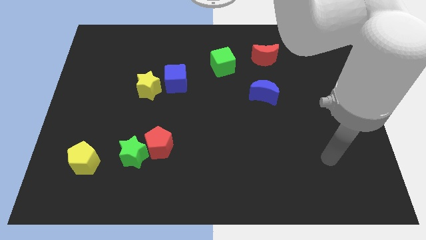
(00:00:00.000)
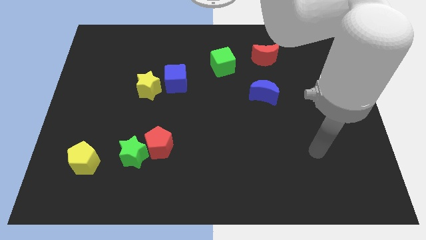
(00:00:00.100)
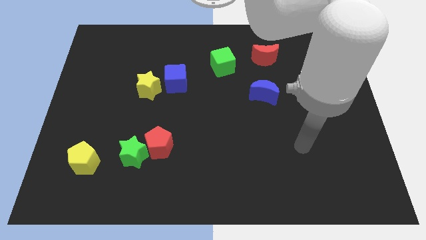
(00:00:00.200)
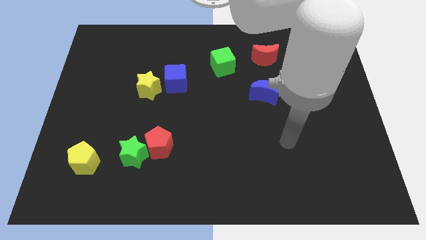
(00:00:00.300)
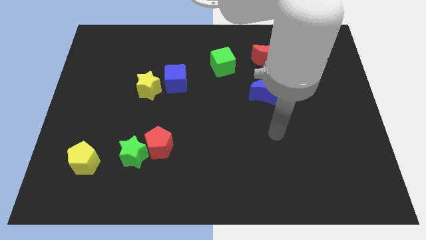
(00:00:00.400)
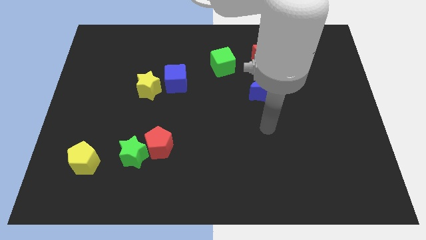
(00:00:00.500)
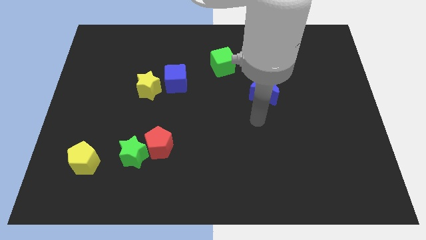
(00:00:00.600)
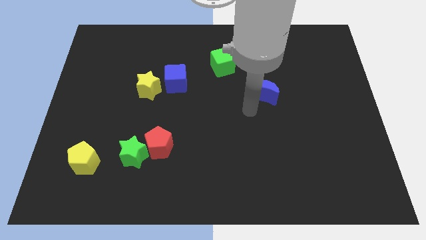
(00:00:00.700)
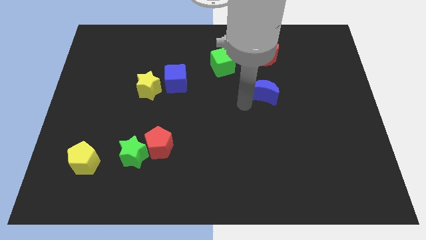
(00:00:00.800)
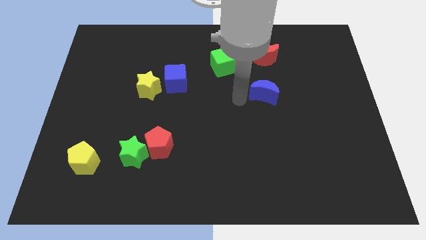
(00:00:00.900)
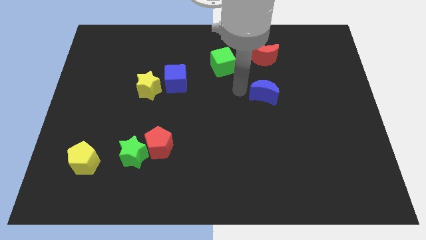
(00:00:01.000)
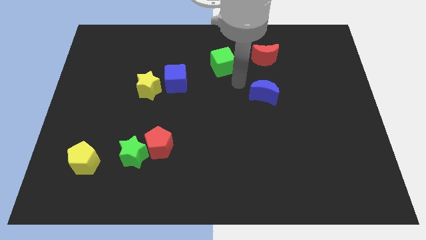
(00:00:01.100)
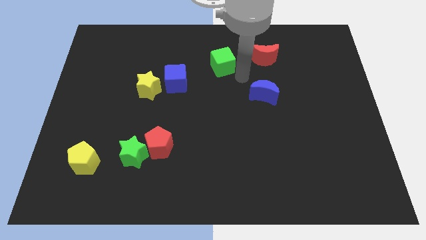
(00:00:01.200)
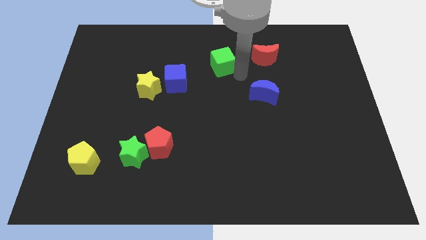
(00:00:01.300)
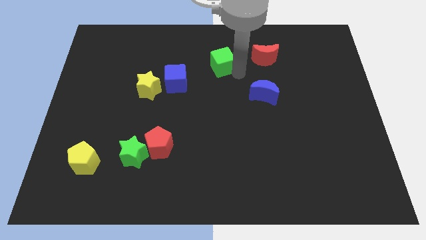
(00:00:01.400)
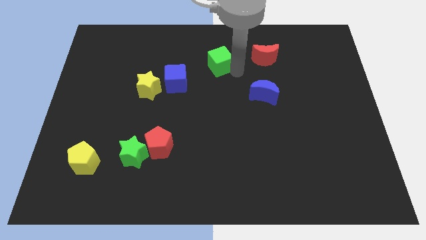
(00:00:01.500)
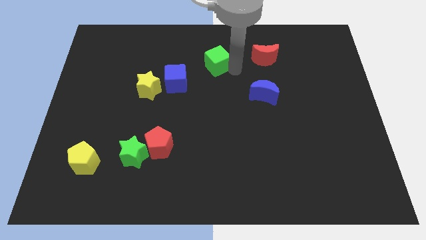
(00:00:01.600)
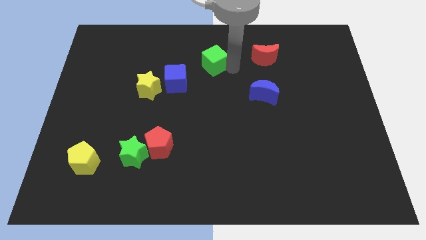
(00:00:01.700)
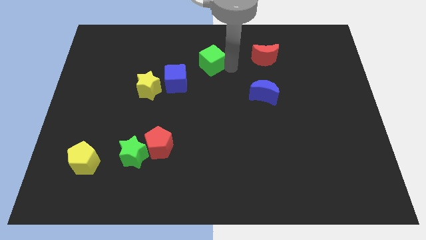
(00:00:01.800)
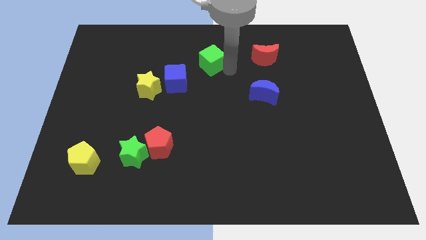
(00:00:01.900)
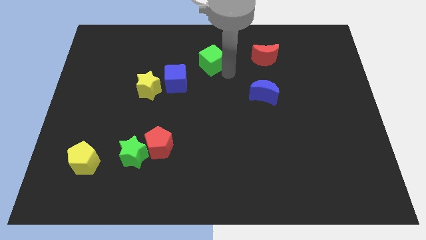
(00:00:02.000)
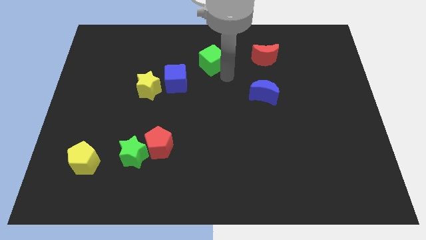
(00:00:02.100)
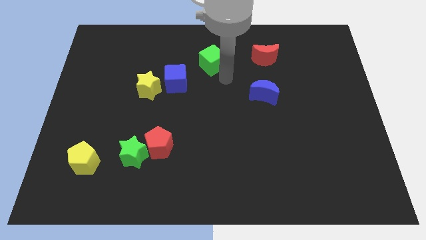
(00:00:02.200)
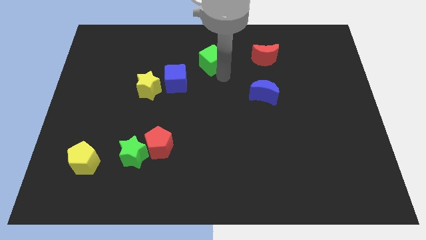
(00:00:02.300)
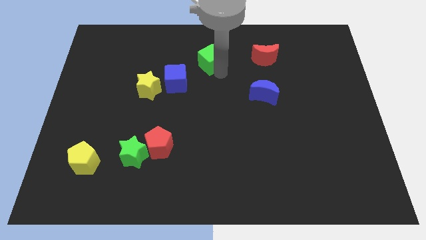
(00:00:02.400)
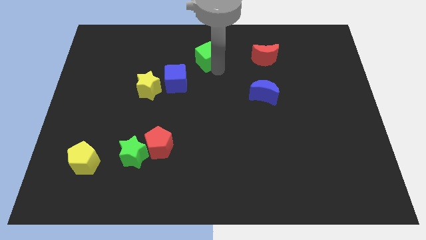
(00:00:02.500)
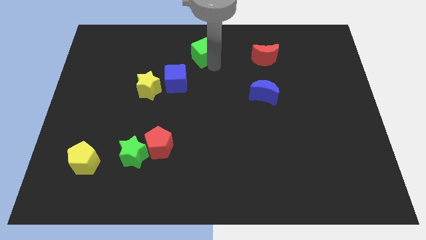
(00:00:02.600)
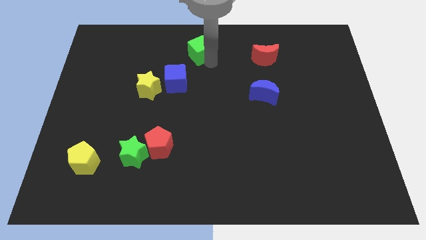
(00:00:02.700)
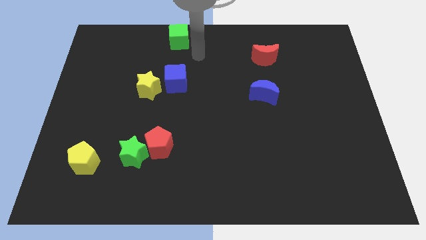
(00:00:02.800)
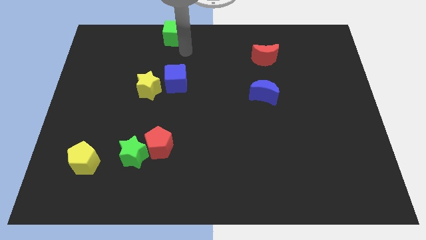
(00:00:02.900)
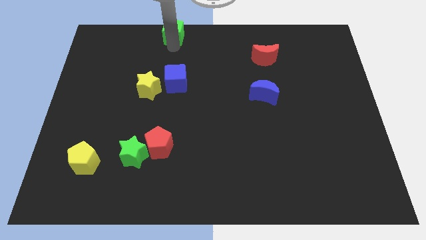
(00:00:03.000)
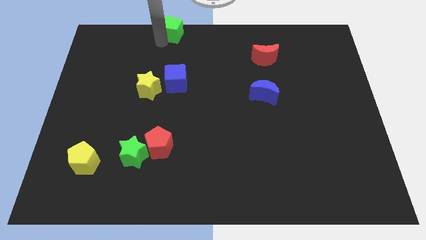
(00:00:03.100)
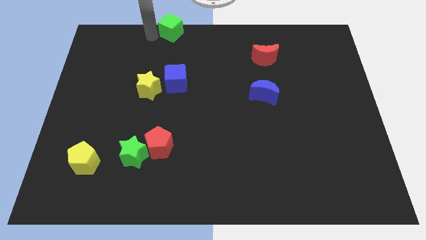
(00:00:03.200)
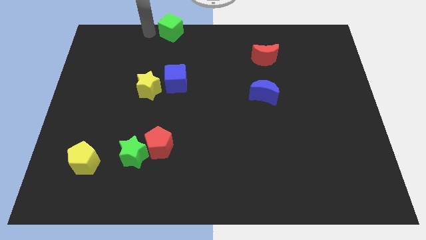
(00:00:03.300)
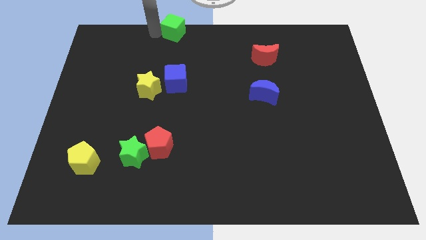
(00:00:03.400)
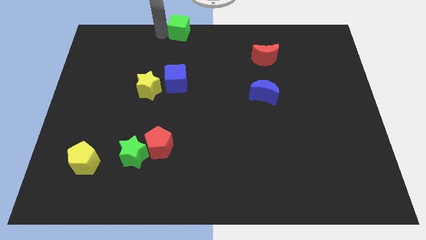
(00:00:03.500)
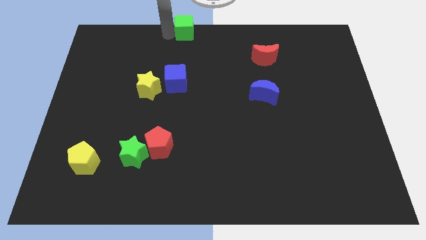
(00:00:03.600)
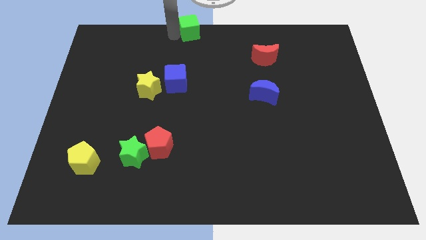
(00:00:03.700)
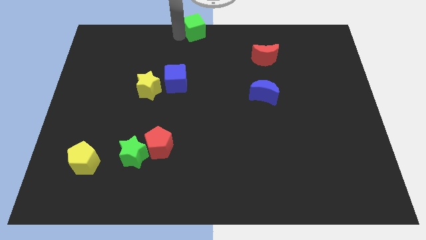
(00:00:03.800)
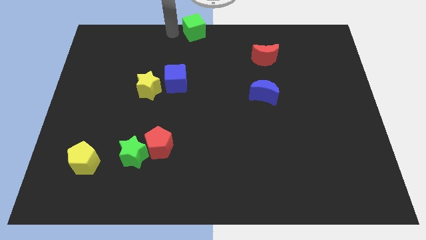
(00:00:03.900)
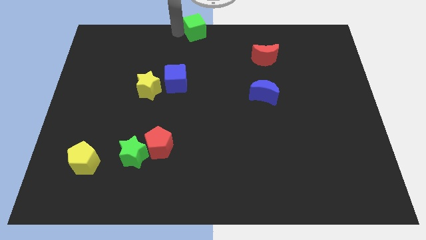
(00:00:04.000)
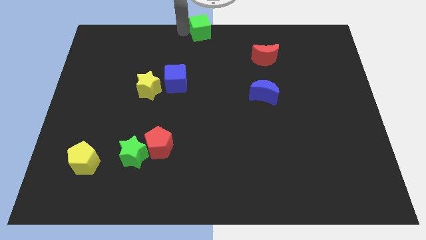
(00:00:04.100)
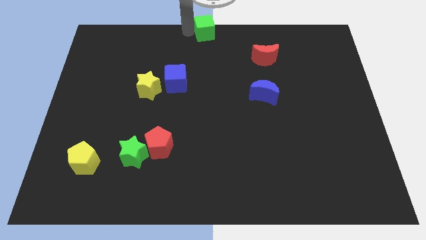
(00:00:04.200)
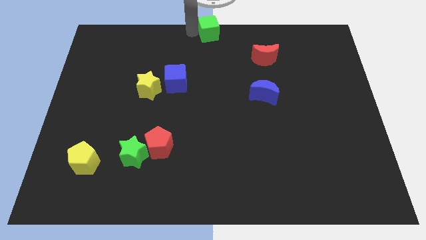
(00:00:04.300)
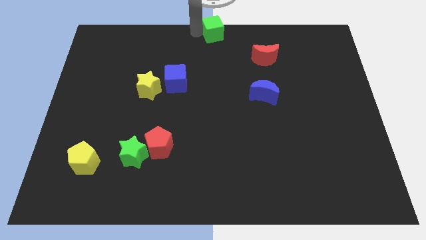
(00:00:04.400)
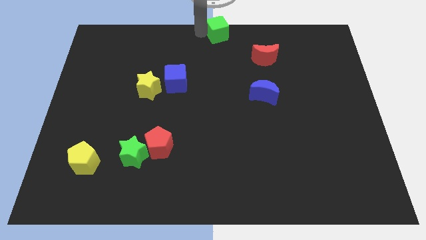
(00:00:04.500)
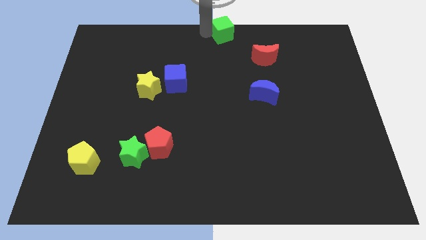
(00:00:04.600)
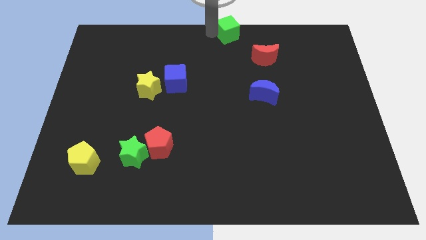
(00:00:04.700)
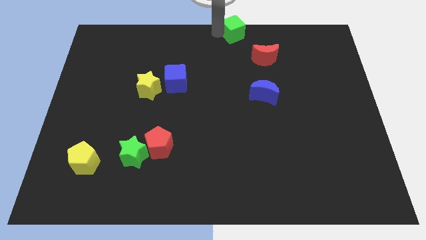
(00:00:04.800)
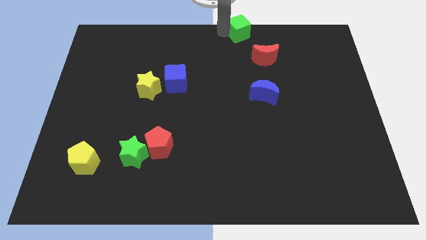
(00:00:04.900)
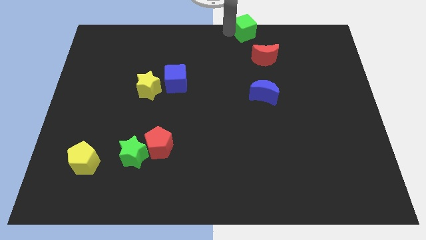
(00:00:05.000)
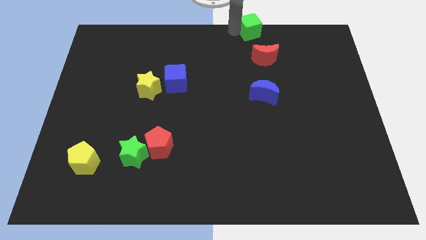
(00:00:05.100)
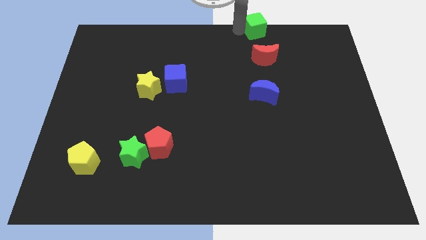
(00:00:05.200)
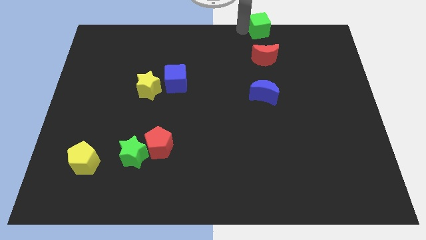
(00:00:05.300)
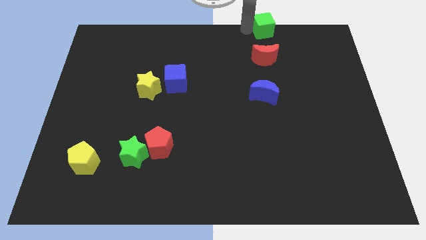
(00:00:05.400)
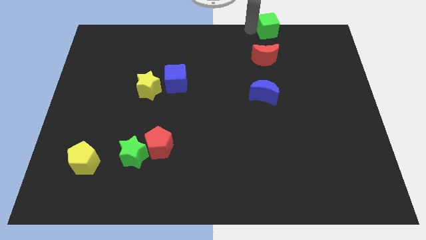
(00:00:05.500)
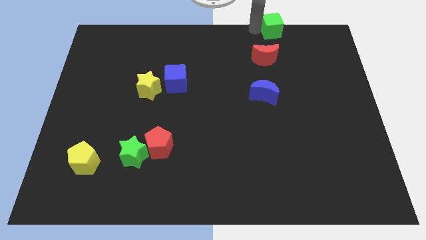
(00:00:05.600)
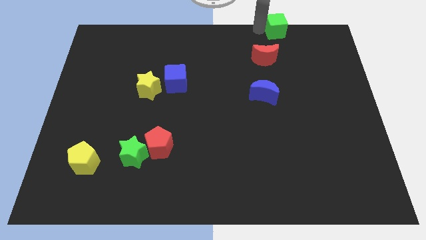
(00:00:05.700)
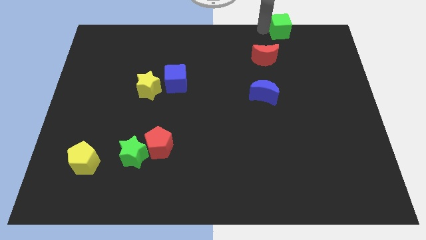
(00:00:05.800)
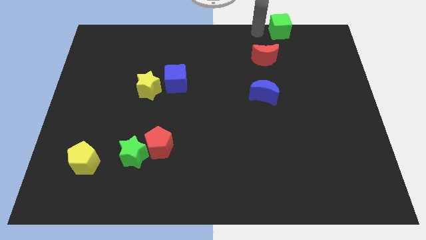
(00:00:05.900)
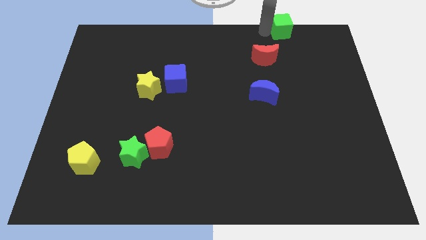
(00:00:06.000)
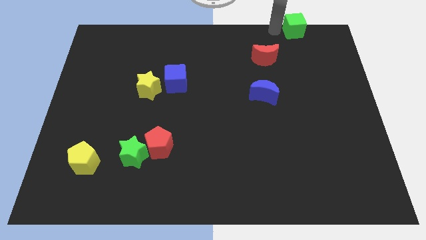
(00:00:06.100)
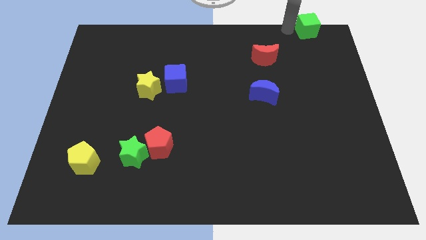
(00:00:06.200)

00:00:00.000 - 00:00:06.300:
put the green cube to the top right corner
